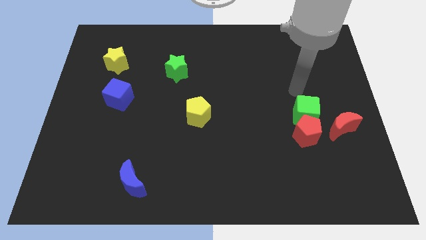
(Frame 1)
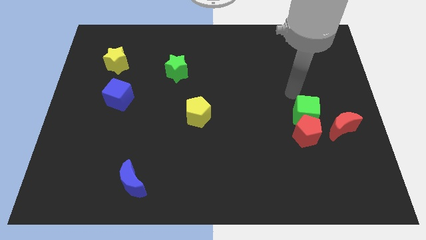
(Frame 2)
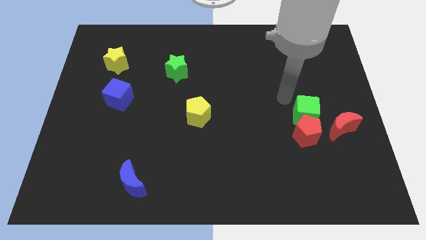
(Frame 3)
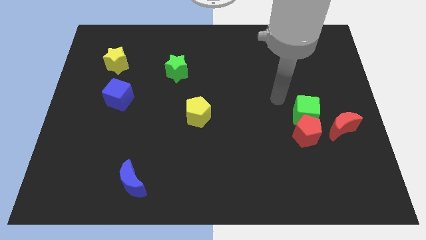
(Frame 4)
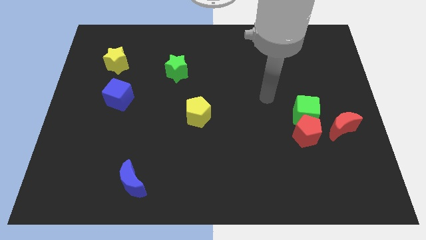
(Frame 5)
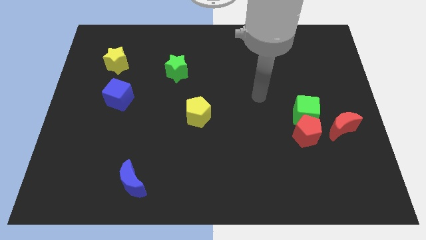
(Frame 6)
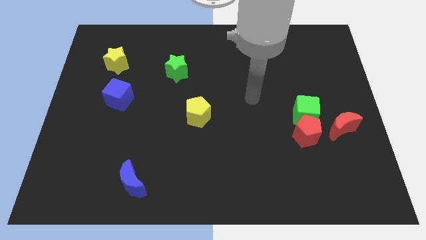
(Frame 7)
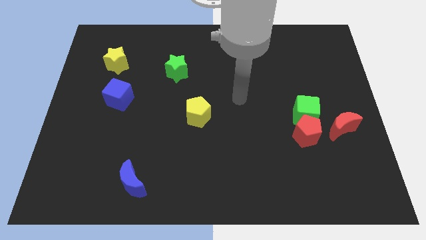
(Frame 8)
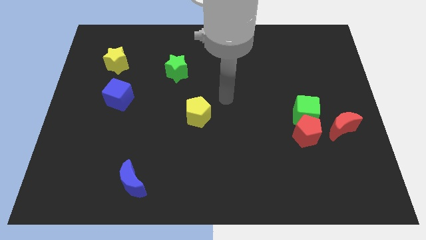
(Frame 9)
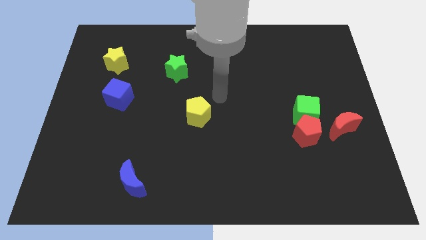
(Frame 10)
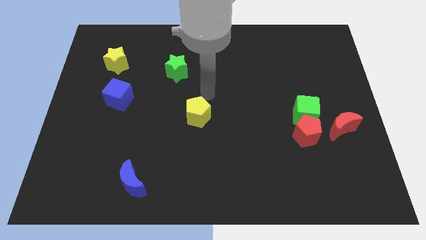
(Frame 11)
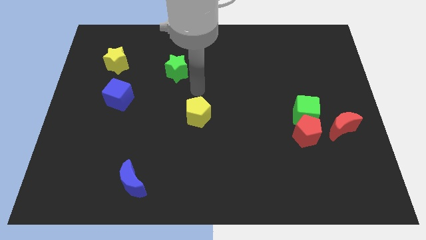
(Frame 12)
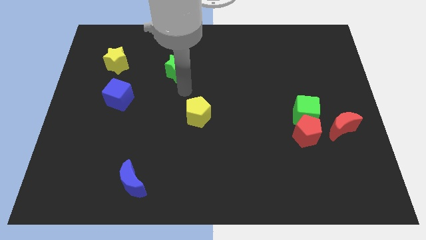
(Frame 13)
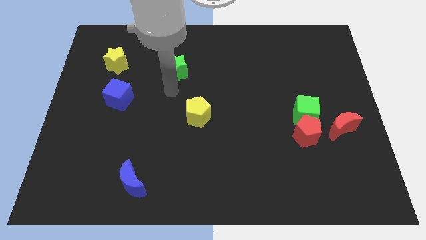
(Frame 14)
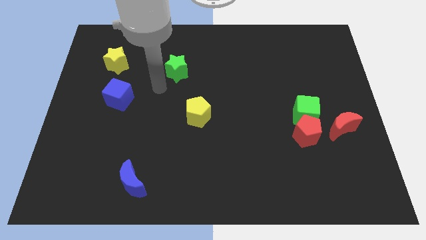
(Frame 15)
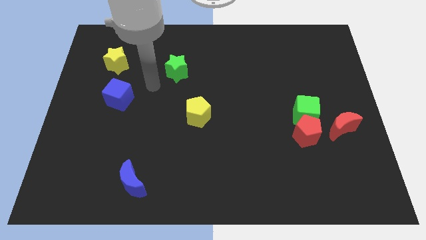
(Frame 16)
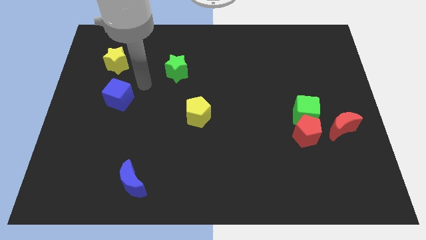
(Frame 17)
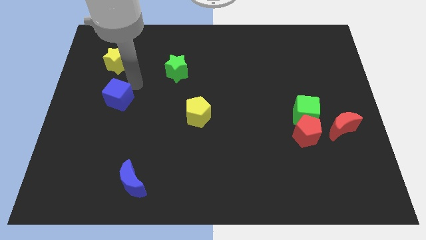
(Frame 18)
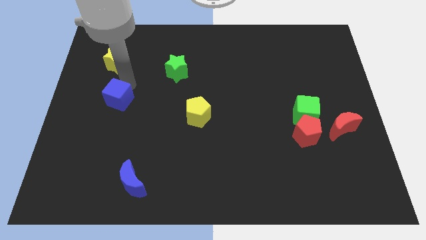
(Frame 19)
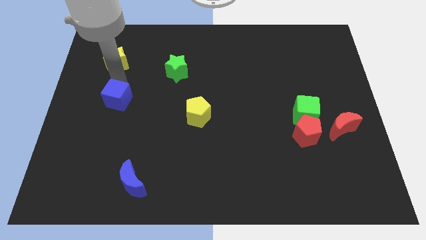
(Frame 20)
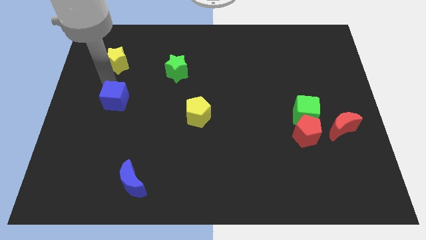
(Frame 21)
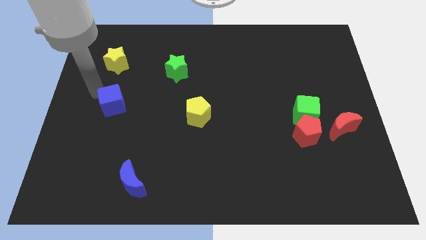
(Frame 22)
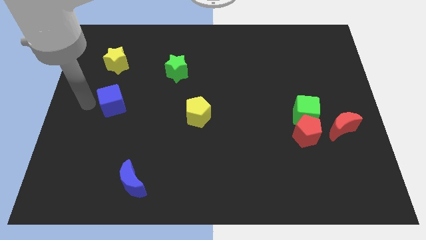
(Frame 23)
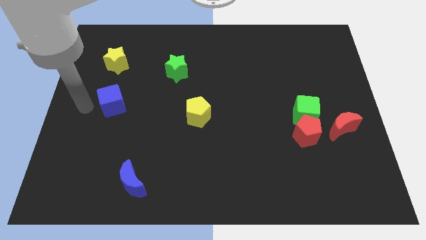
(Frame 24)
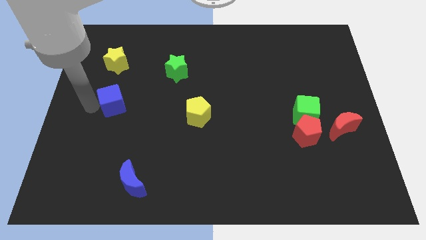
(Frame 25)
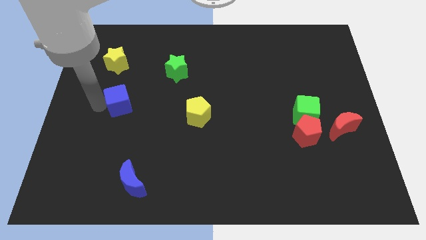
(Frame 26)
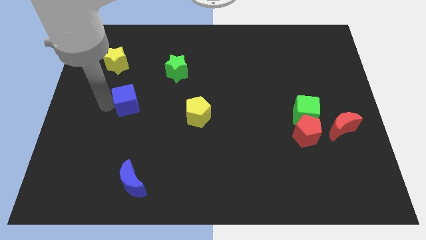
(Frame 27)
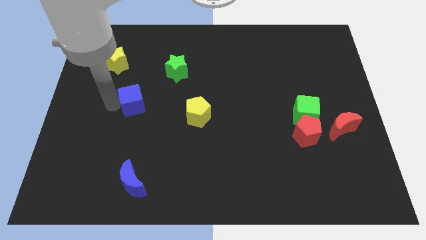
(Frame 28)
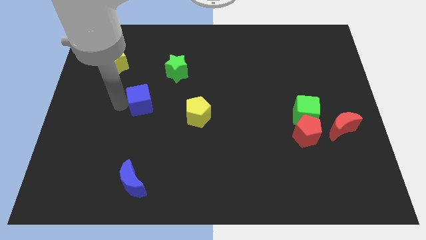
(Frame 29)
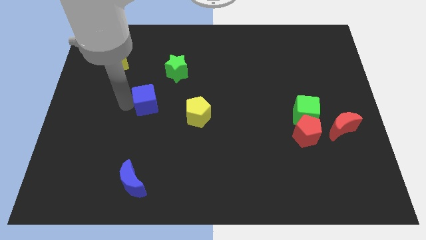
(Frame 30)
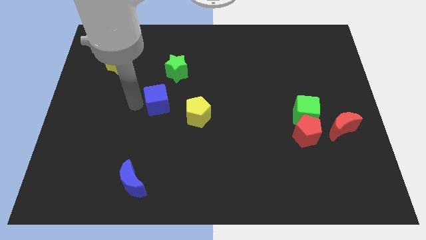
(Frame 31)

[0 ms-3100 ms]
slightly move the blue cube to the right

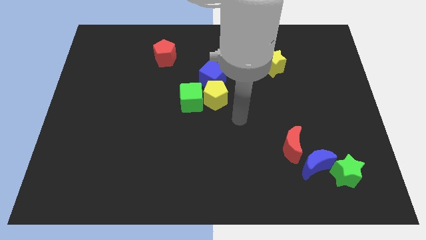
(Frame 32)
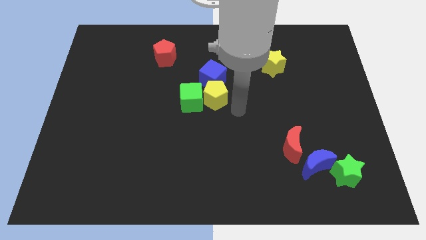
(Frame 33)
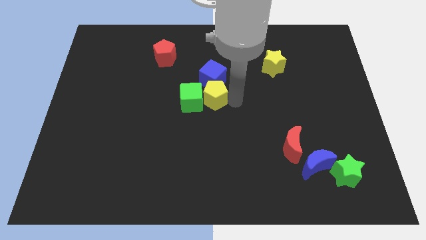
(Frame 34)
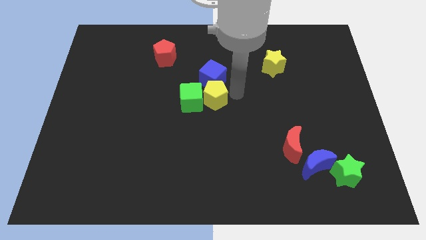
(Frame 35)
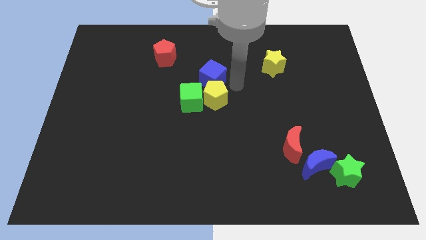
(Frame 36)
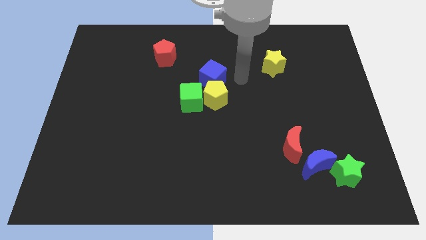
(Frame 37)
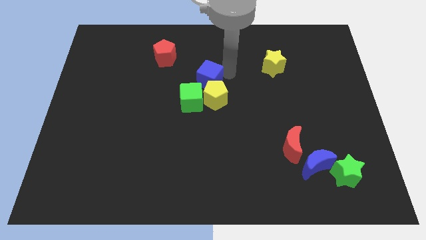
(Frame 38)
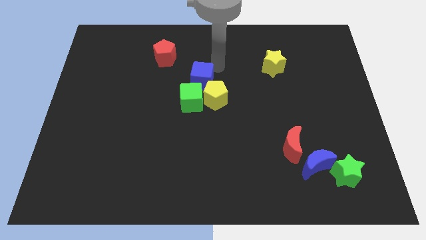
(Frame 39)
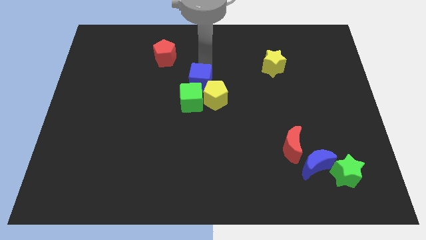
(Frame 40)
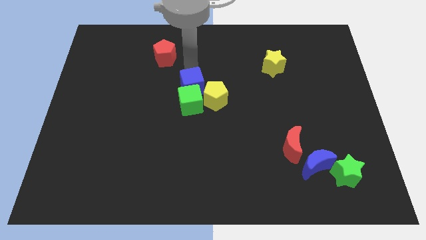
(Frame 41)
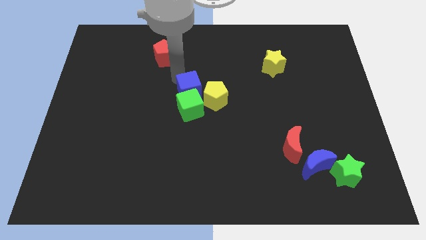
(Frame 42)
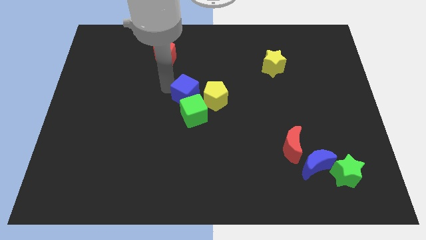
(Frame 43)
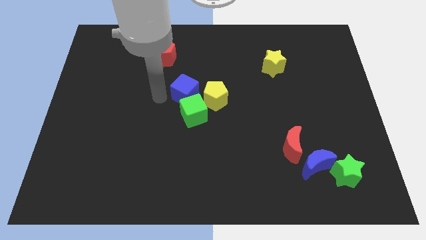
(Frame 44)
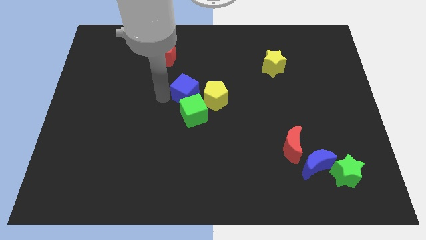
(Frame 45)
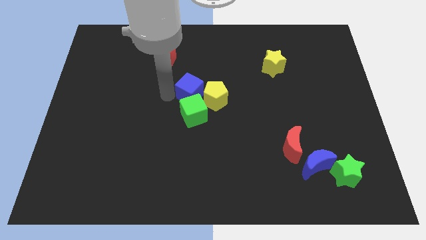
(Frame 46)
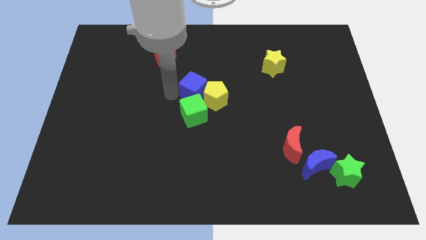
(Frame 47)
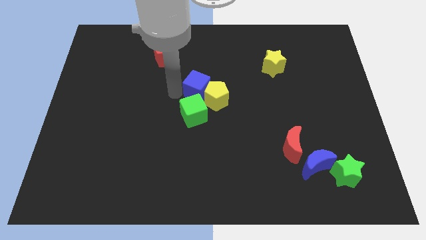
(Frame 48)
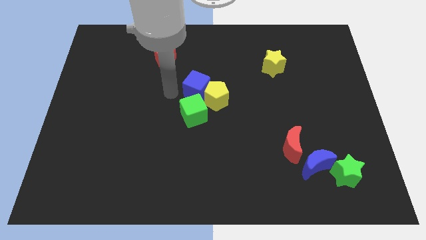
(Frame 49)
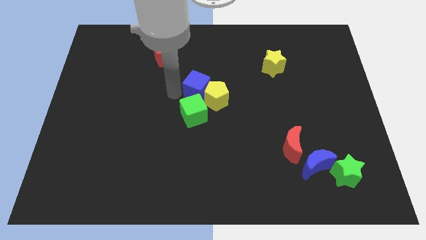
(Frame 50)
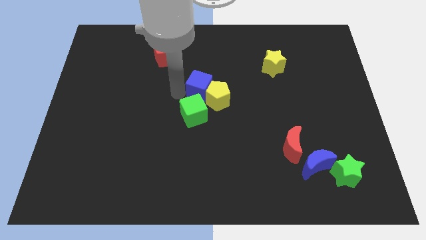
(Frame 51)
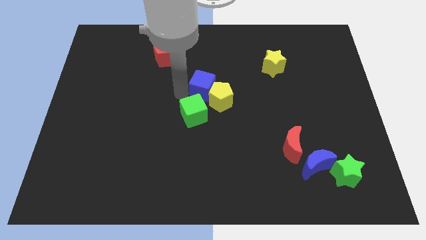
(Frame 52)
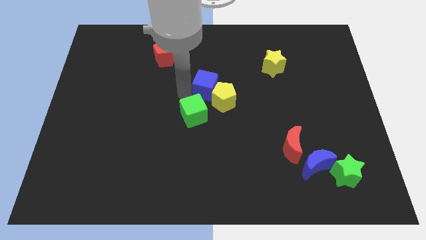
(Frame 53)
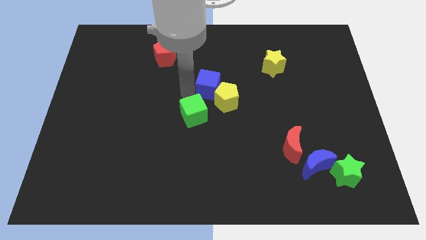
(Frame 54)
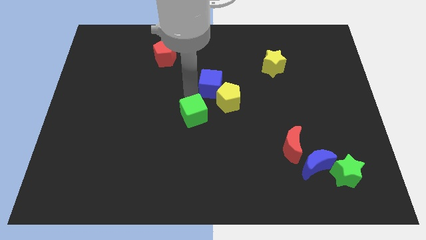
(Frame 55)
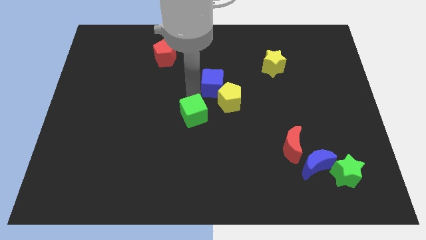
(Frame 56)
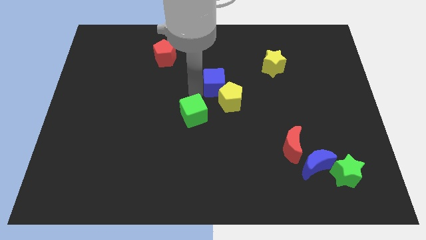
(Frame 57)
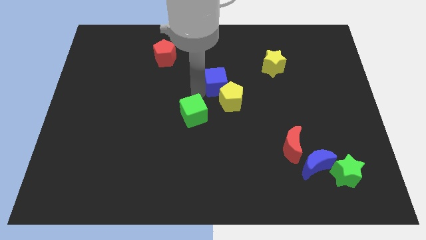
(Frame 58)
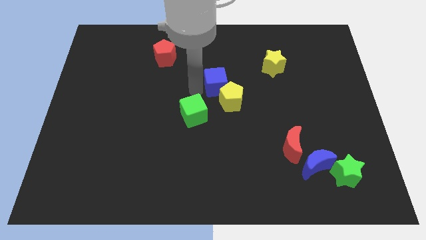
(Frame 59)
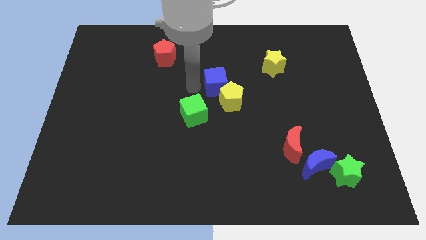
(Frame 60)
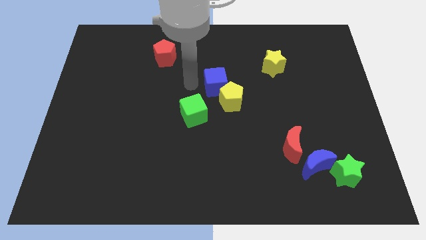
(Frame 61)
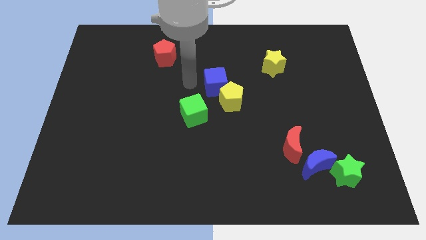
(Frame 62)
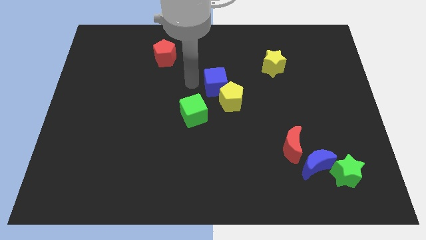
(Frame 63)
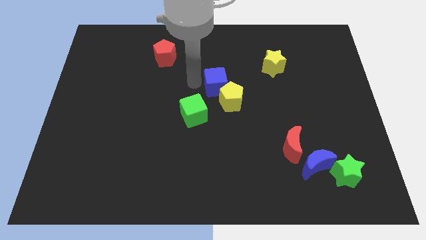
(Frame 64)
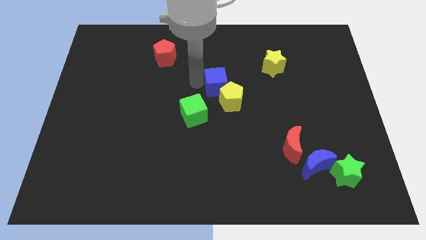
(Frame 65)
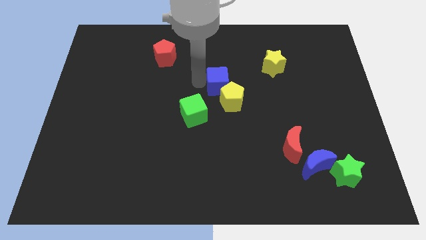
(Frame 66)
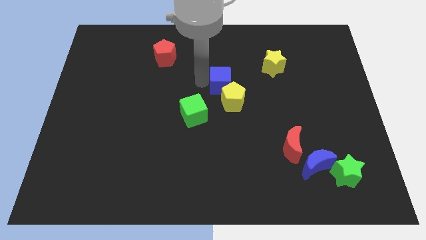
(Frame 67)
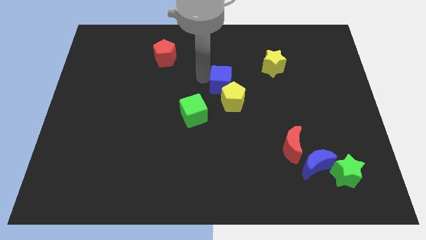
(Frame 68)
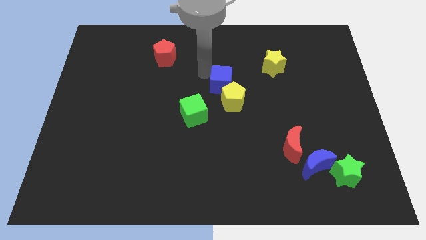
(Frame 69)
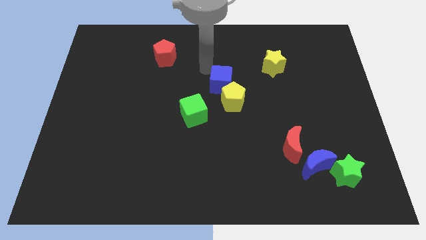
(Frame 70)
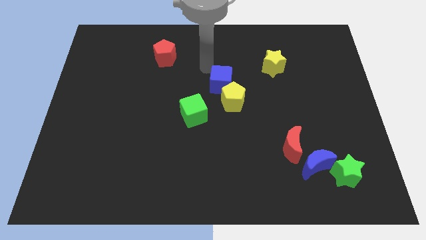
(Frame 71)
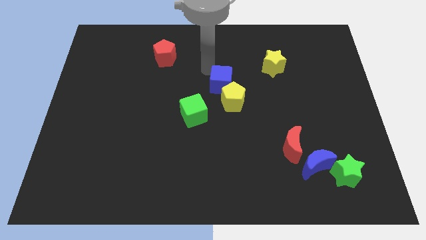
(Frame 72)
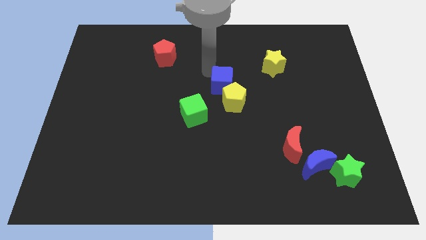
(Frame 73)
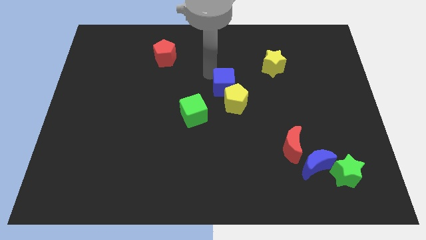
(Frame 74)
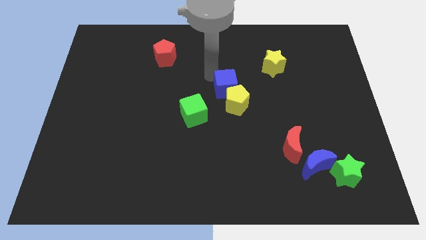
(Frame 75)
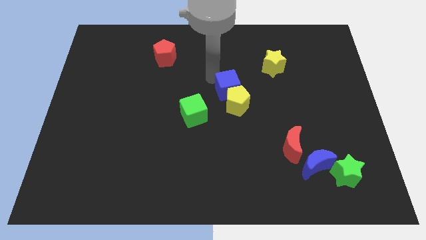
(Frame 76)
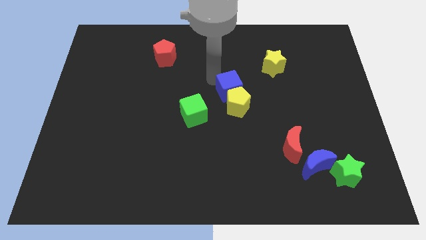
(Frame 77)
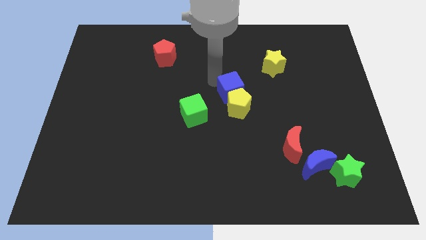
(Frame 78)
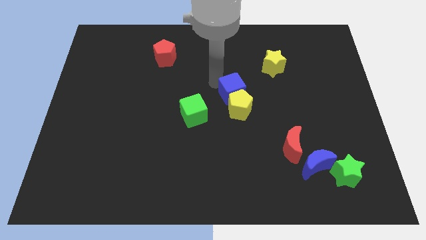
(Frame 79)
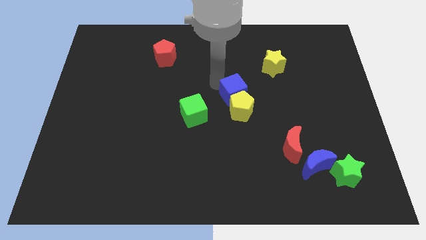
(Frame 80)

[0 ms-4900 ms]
slightly push the blue cube downwards and then to the right

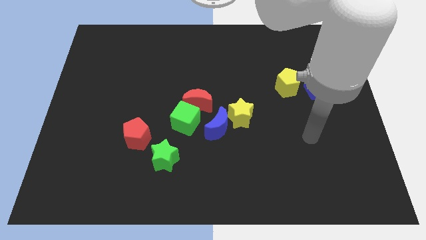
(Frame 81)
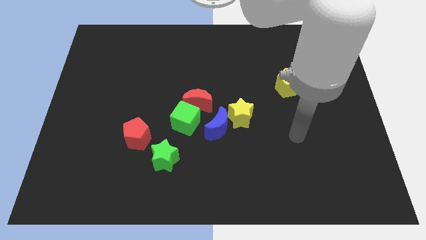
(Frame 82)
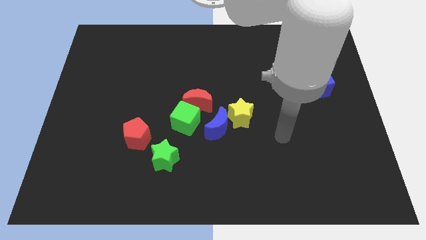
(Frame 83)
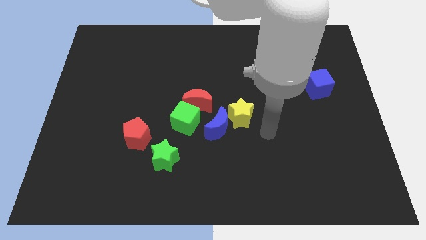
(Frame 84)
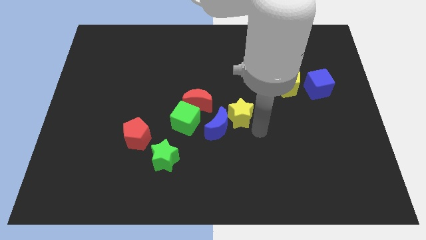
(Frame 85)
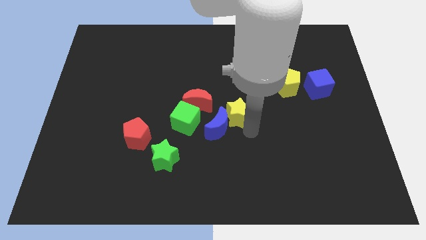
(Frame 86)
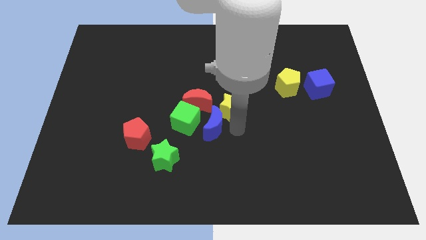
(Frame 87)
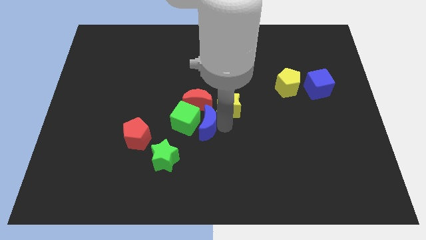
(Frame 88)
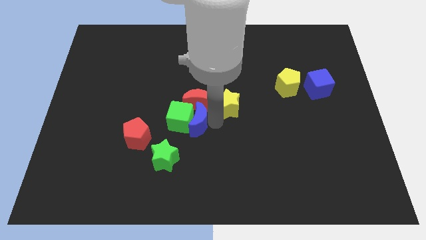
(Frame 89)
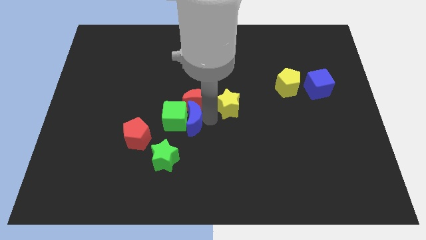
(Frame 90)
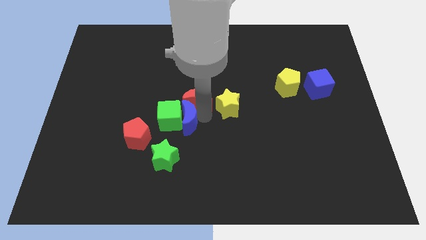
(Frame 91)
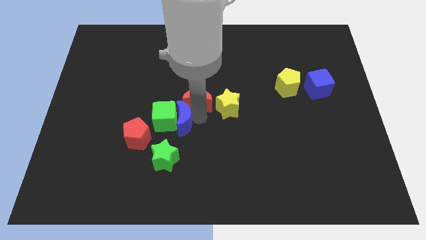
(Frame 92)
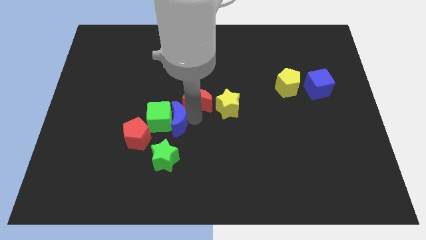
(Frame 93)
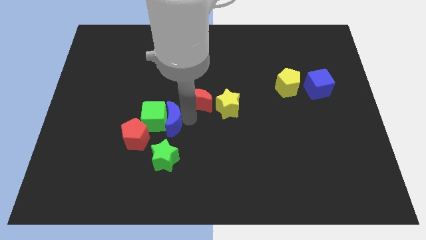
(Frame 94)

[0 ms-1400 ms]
slightly push the green cube left
